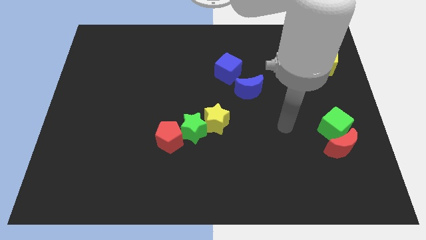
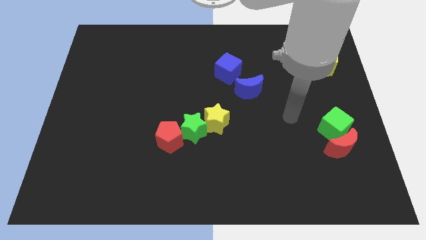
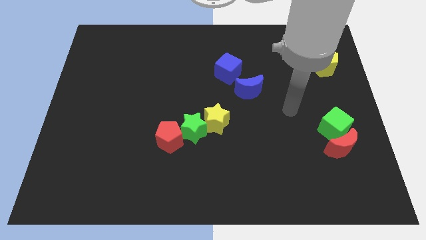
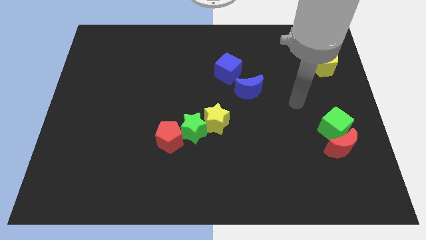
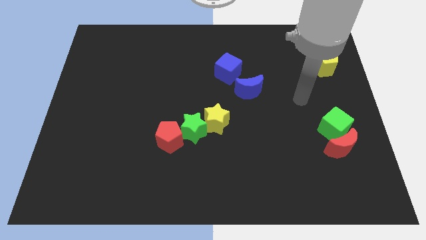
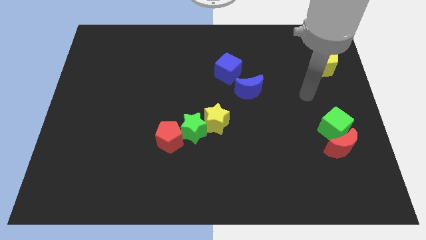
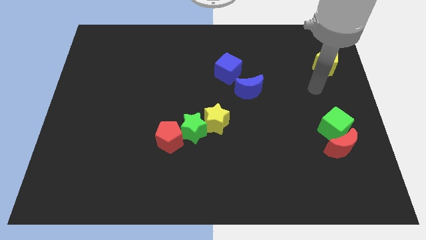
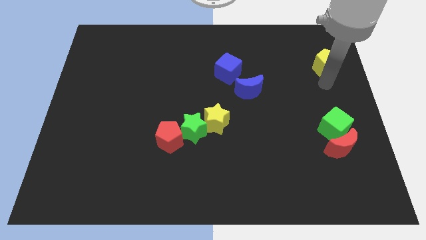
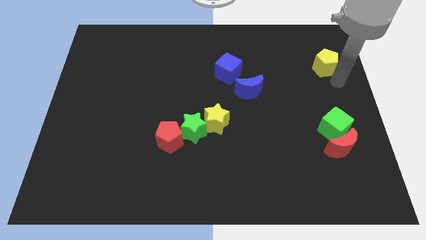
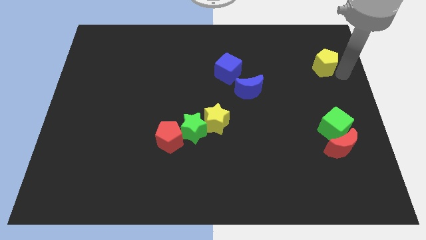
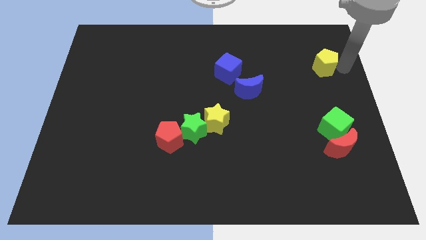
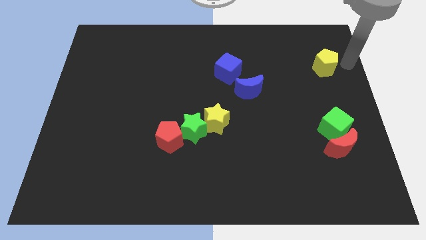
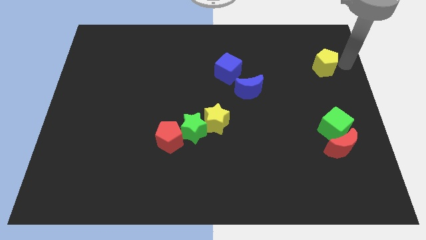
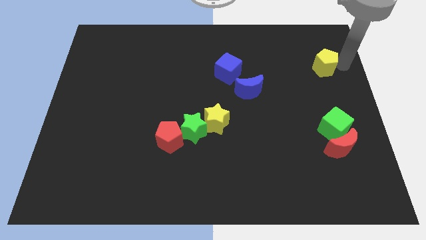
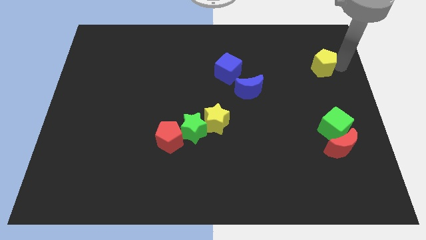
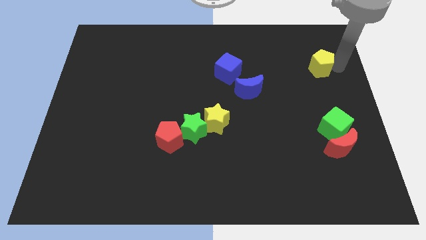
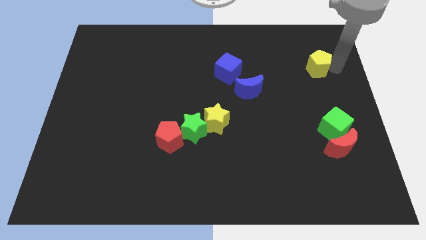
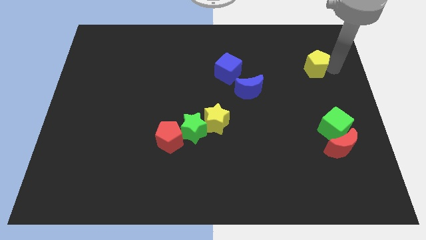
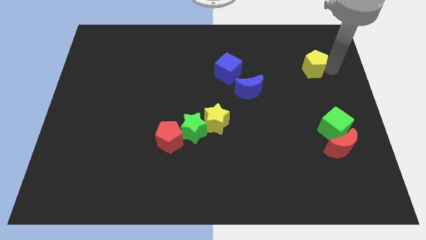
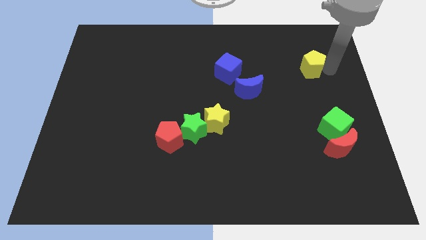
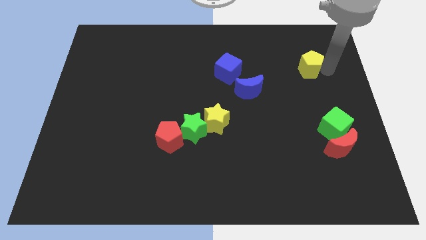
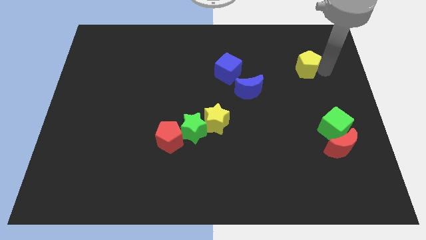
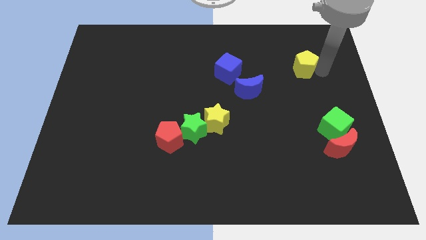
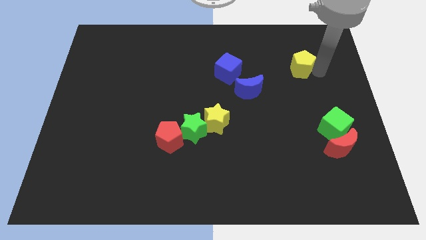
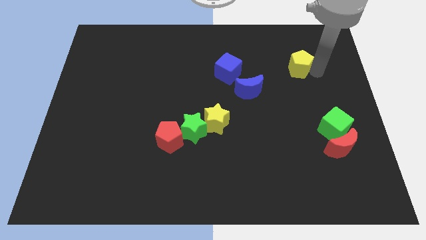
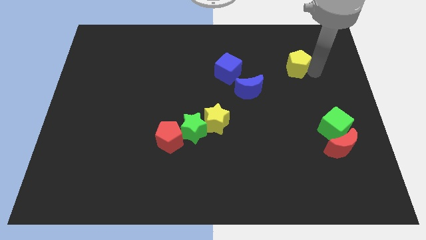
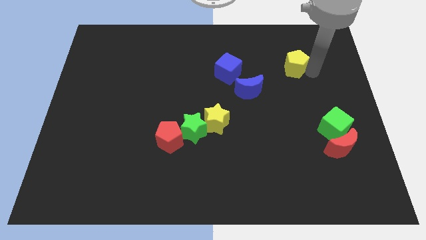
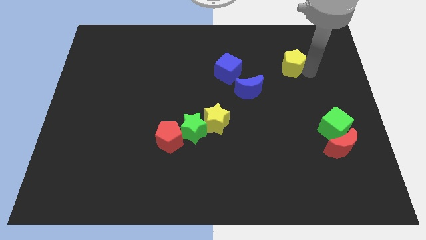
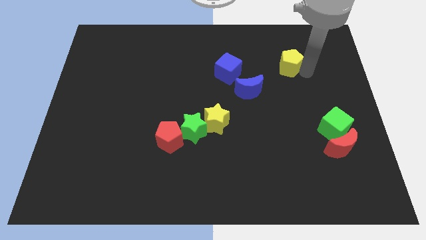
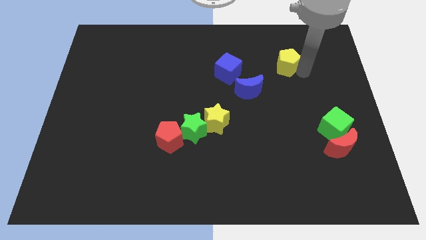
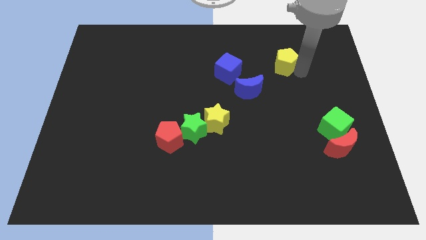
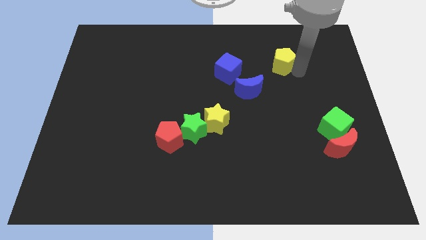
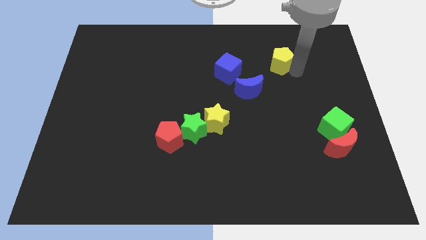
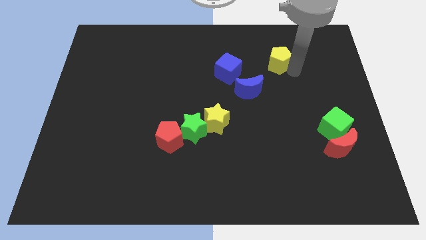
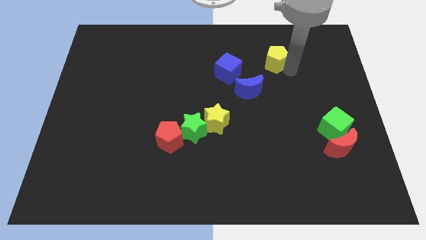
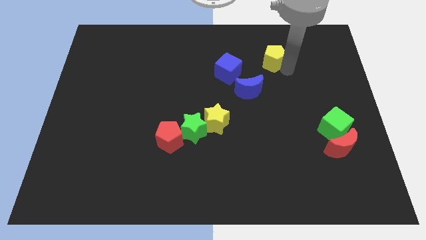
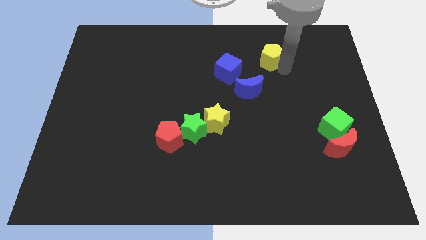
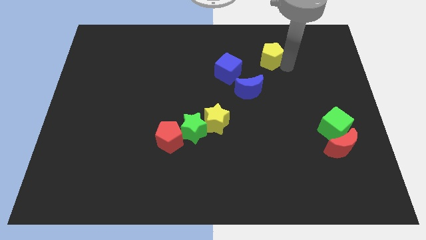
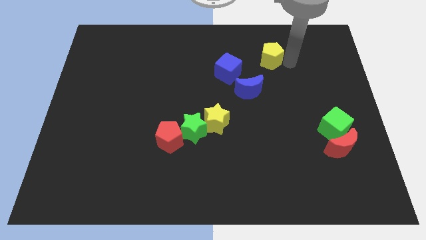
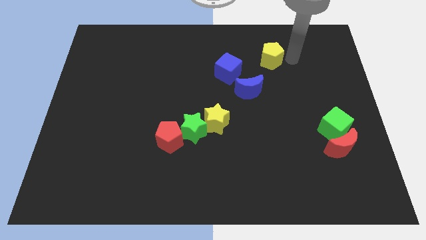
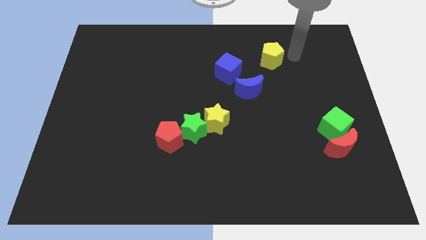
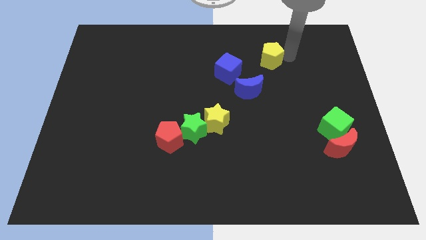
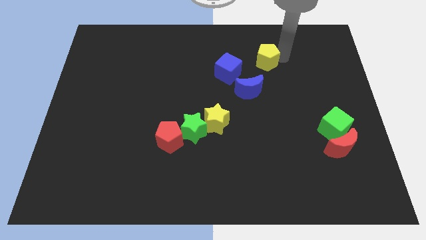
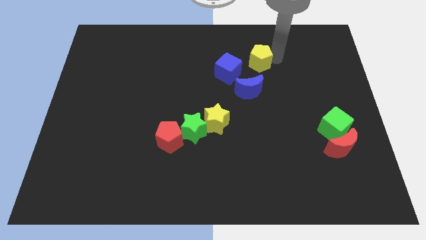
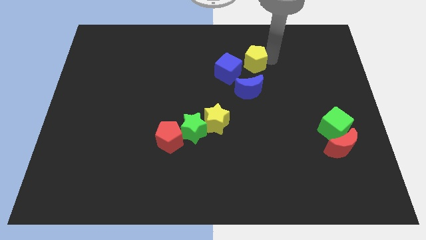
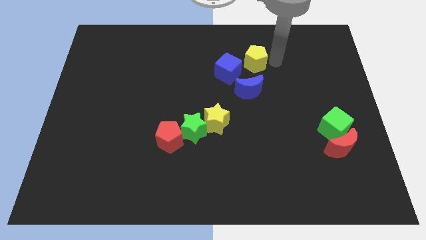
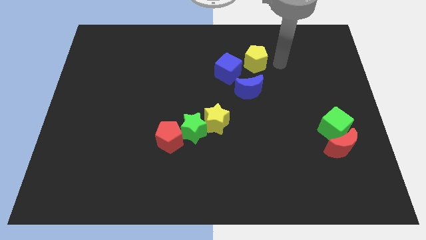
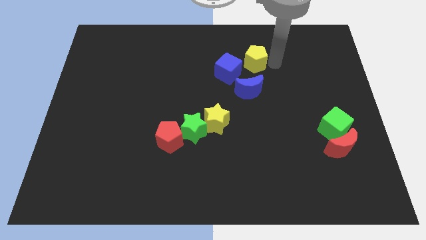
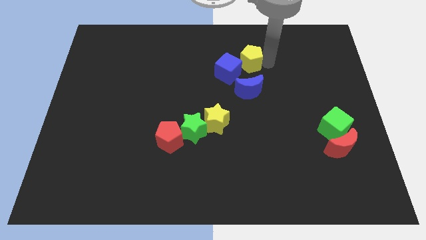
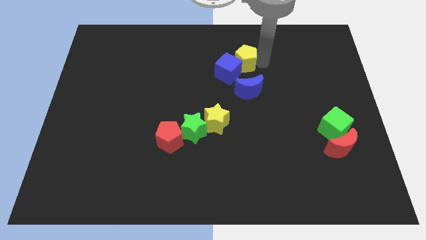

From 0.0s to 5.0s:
move the yellow pentagon to the left

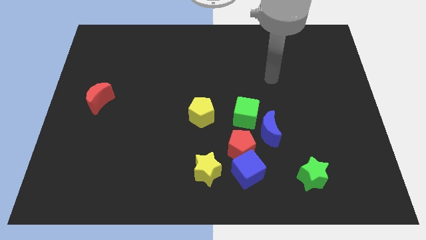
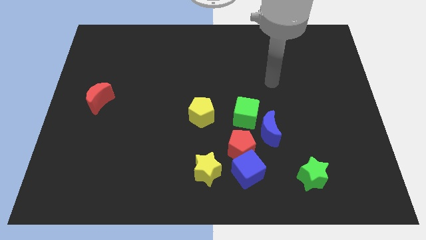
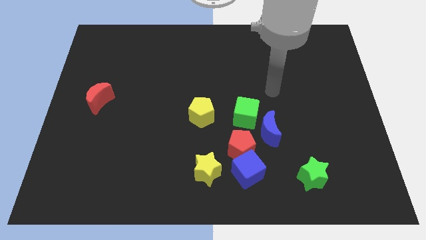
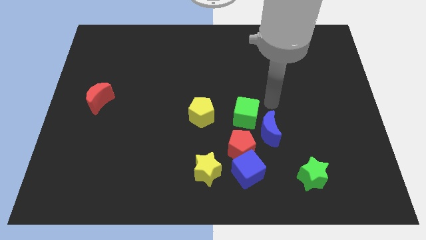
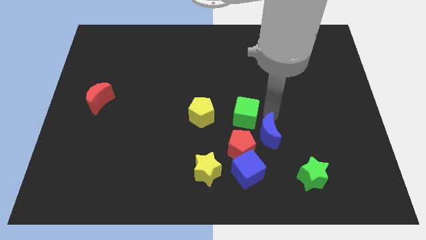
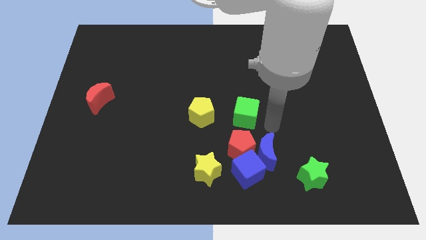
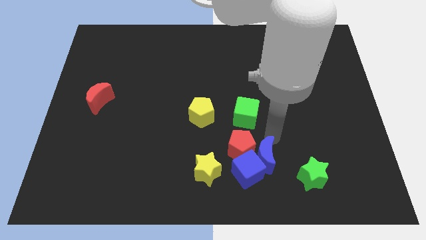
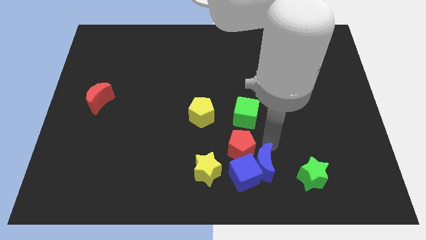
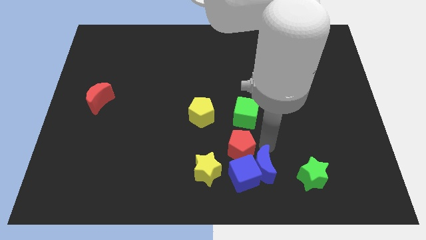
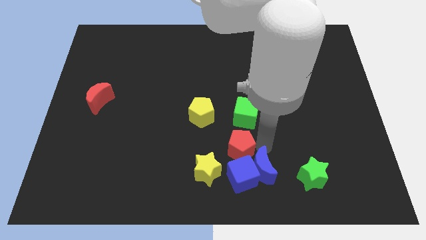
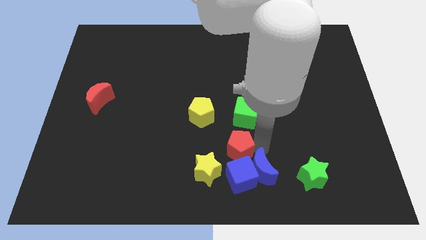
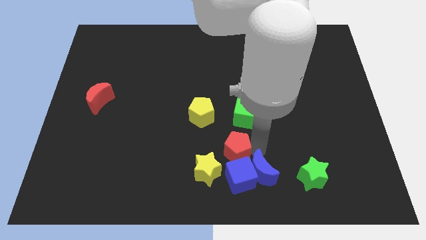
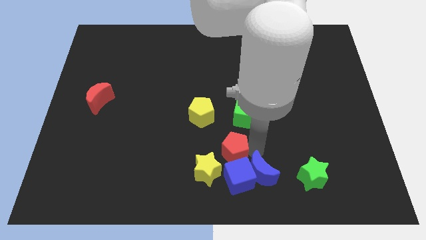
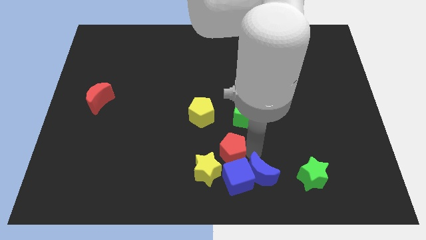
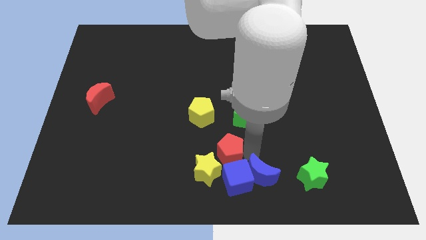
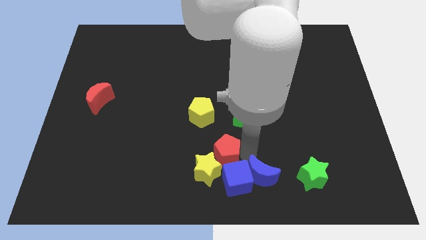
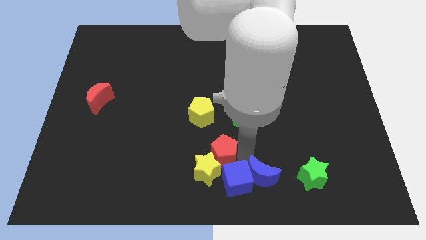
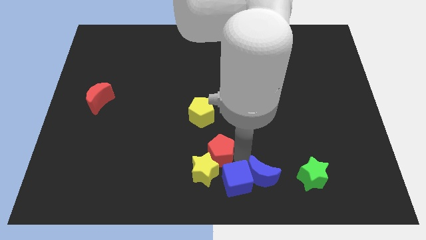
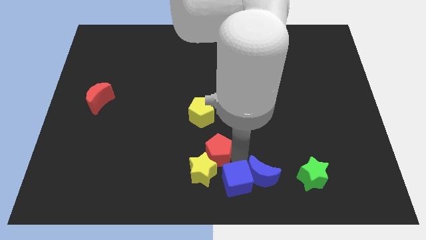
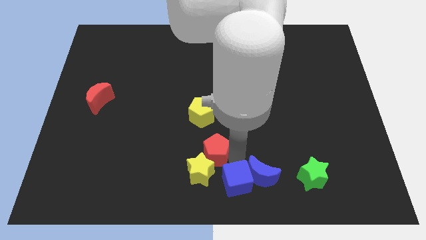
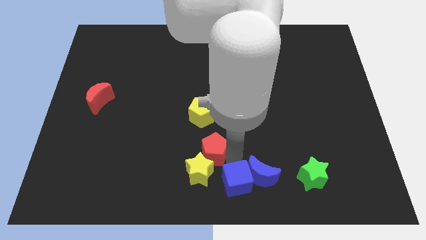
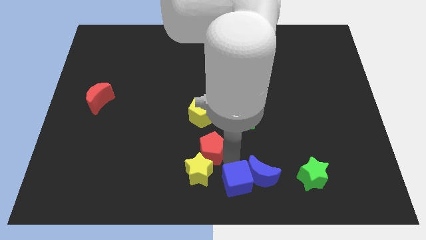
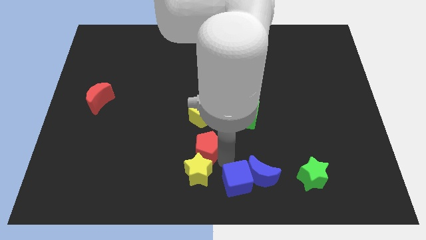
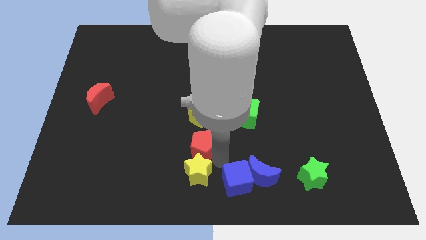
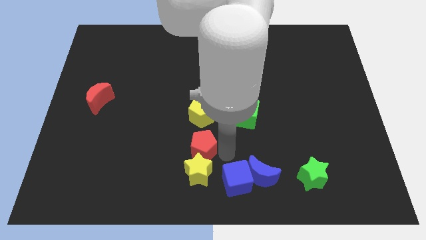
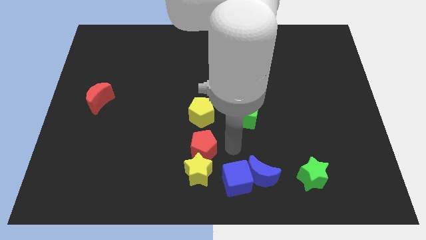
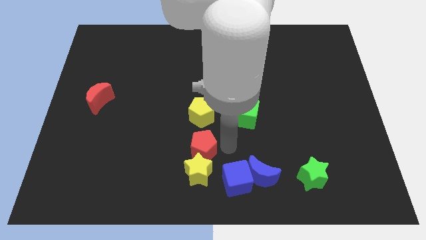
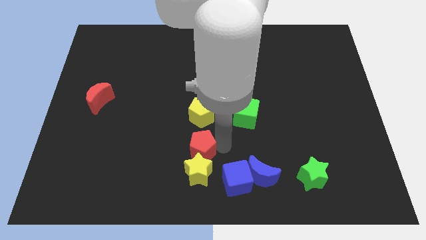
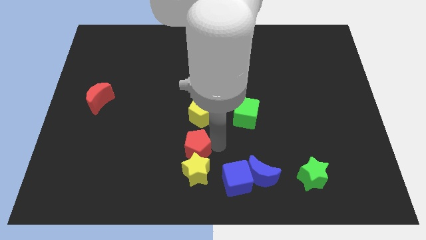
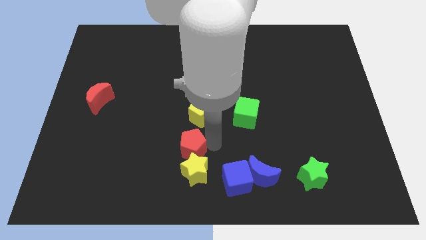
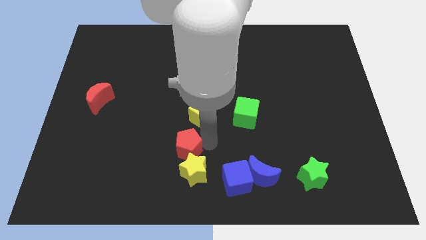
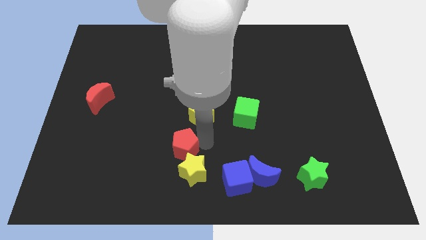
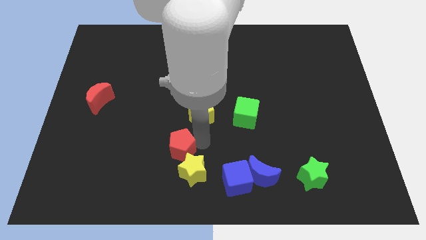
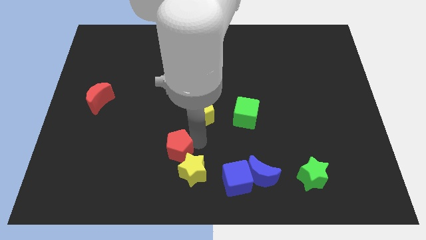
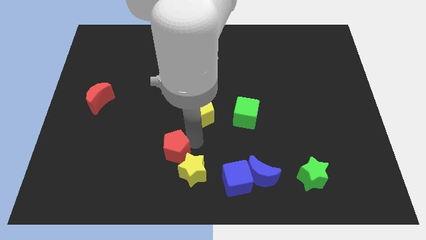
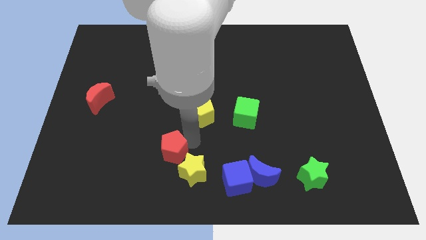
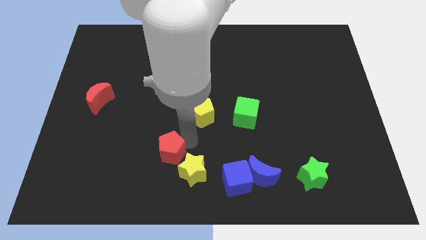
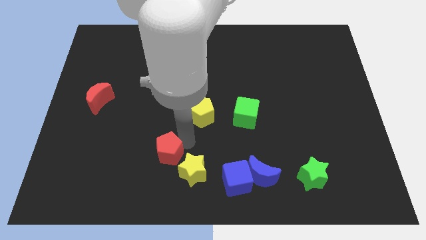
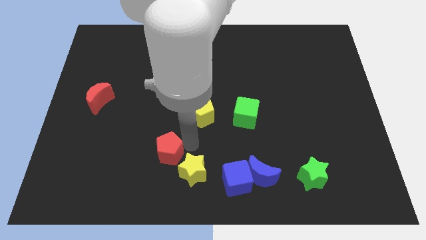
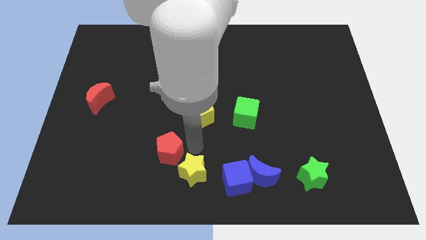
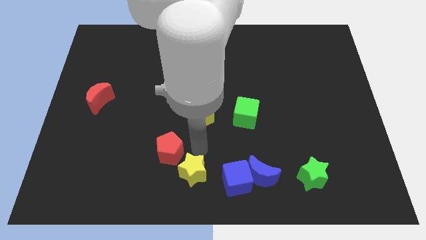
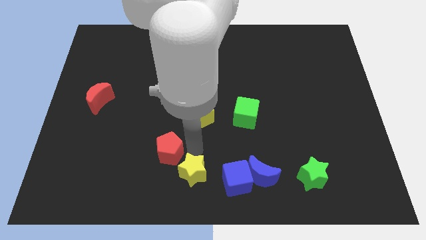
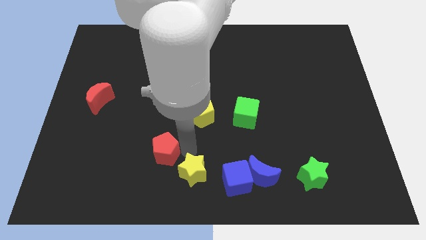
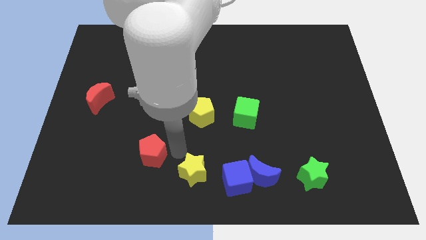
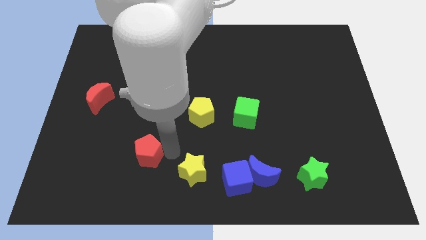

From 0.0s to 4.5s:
push the red pentagon left
